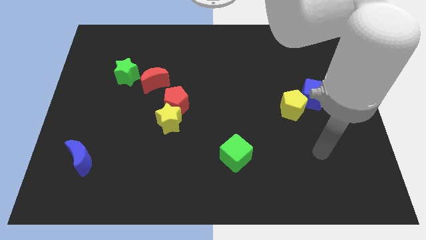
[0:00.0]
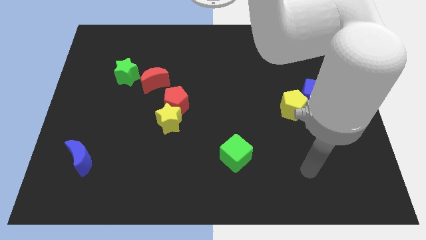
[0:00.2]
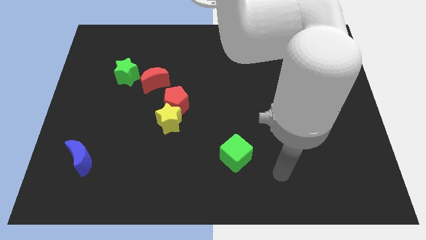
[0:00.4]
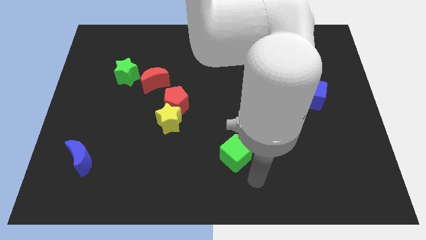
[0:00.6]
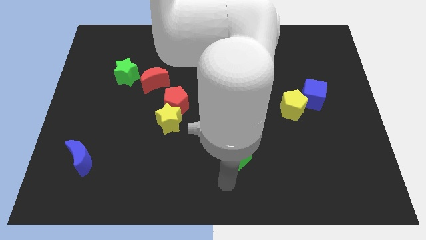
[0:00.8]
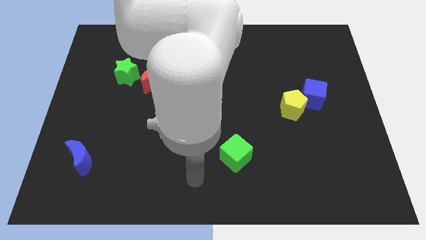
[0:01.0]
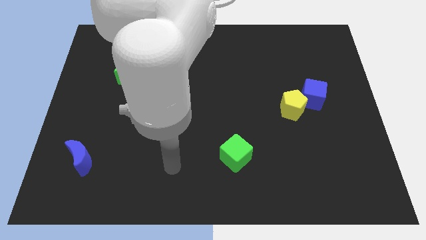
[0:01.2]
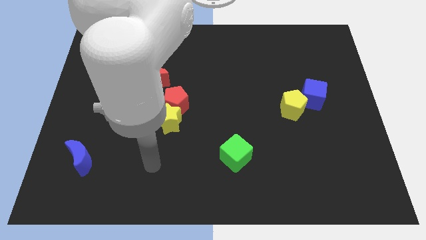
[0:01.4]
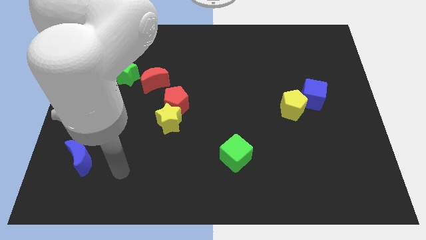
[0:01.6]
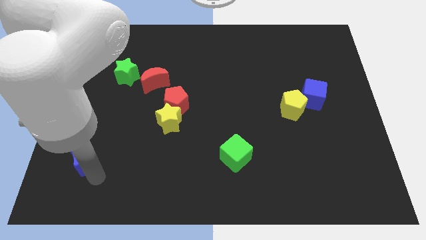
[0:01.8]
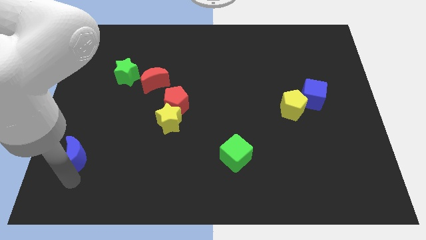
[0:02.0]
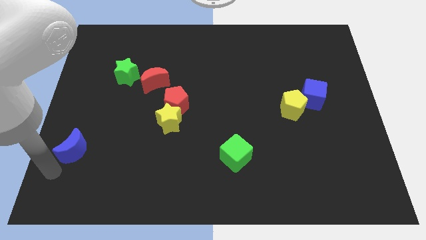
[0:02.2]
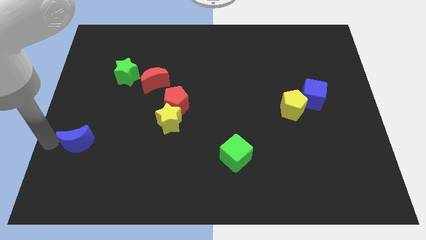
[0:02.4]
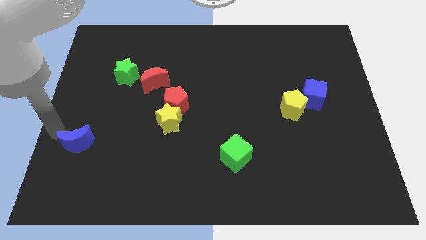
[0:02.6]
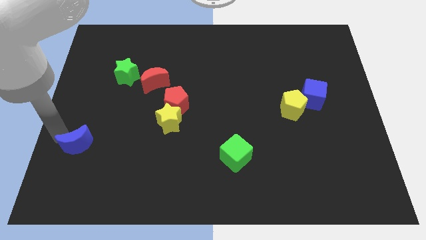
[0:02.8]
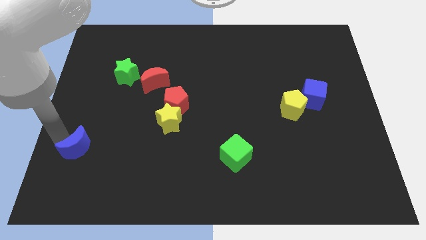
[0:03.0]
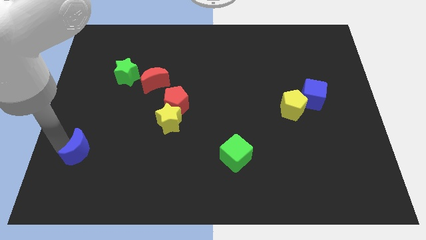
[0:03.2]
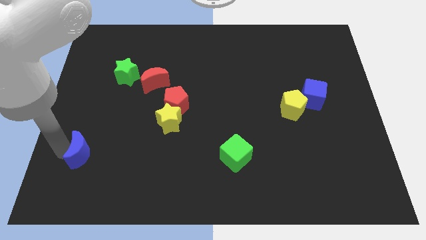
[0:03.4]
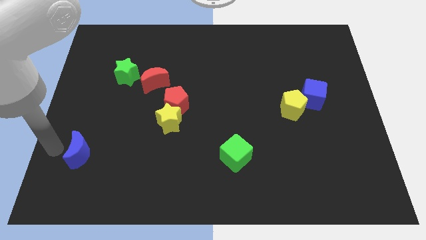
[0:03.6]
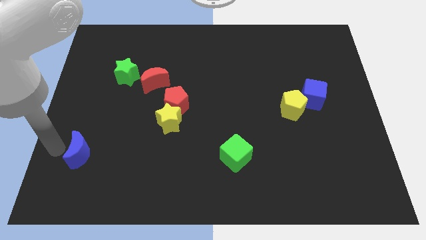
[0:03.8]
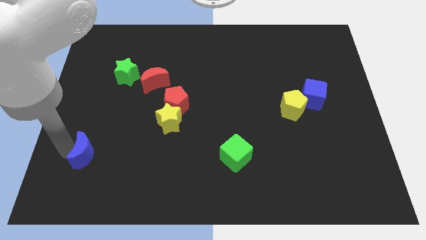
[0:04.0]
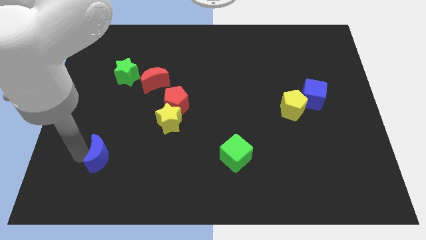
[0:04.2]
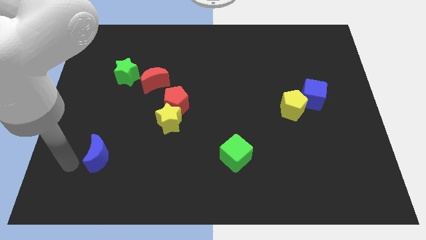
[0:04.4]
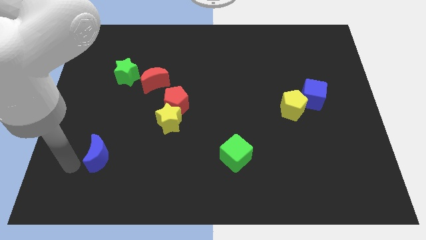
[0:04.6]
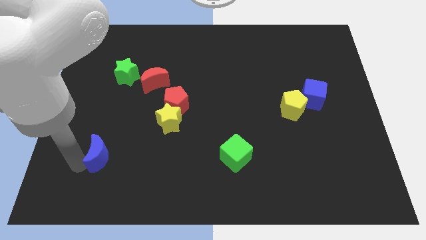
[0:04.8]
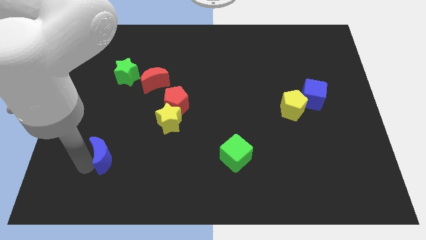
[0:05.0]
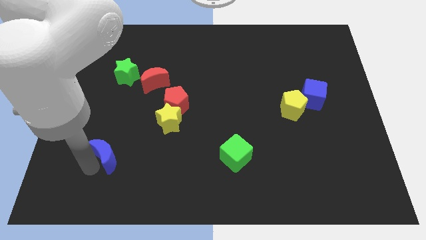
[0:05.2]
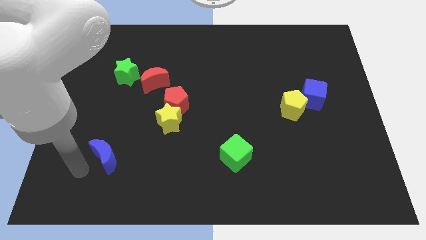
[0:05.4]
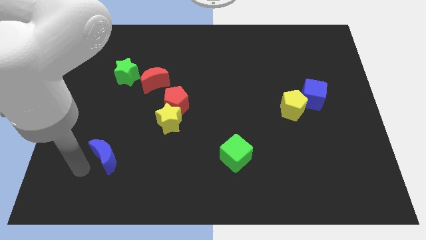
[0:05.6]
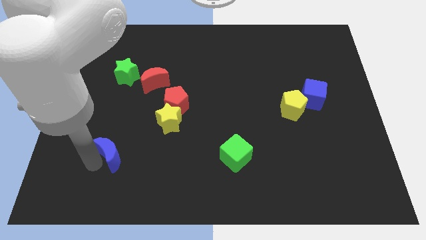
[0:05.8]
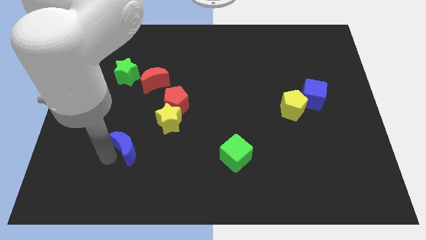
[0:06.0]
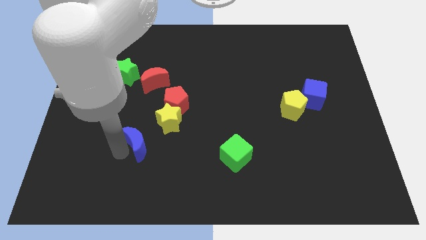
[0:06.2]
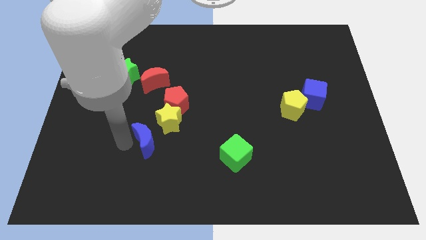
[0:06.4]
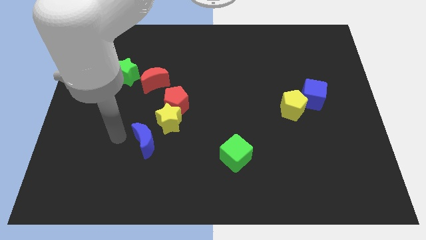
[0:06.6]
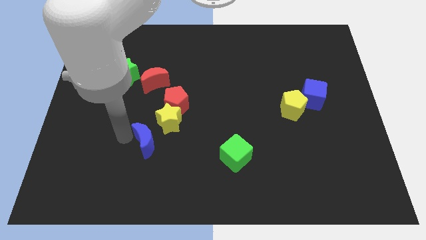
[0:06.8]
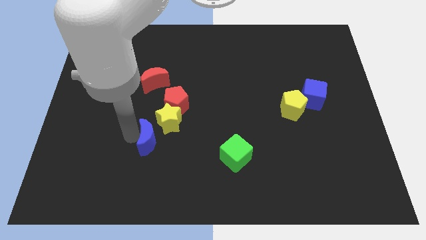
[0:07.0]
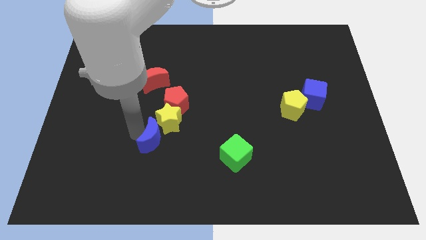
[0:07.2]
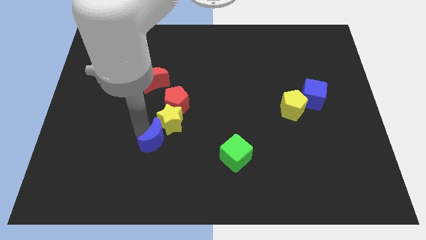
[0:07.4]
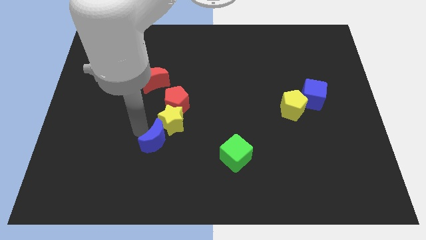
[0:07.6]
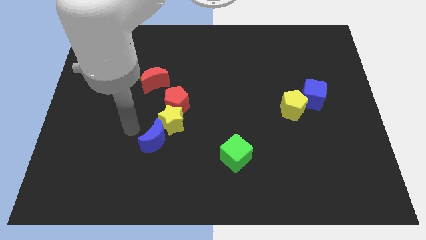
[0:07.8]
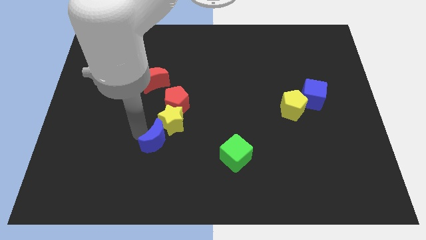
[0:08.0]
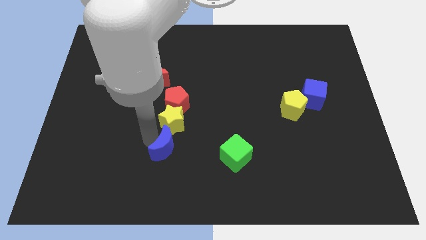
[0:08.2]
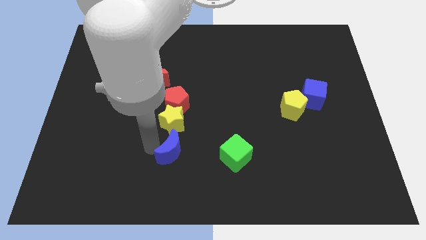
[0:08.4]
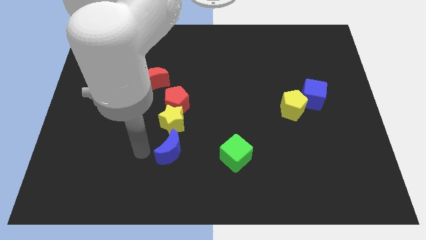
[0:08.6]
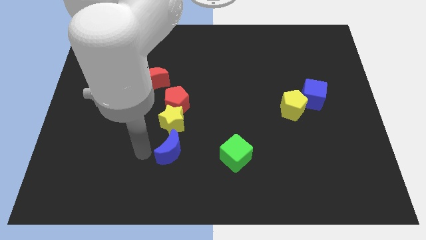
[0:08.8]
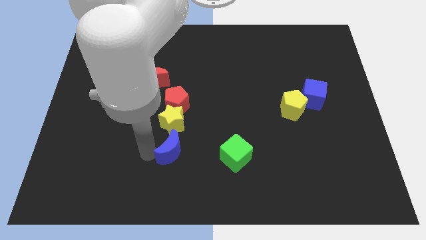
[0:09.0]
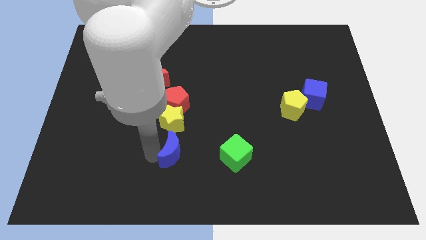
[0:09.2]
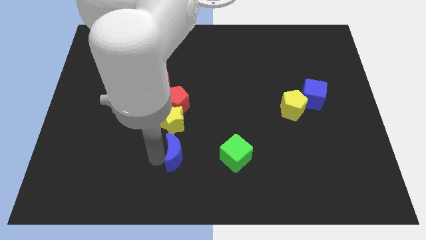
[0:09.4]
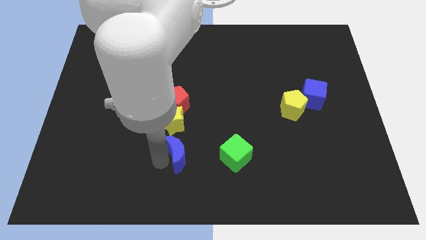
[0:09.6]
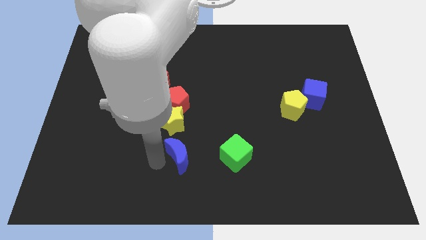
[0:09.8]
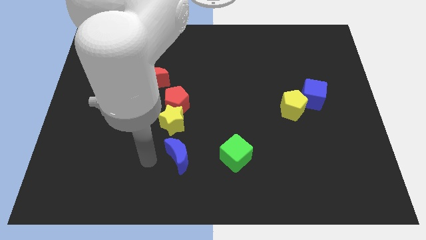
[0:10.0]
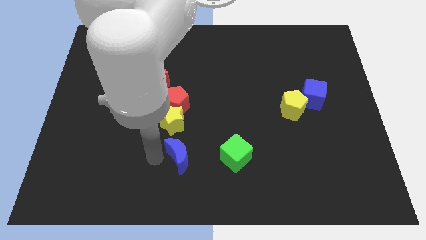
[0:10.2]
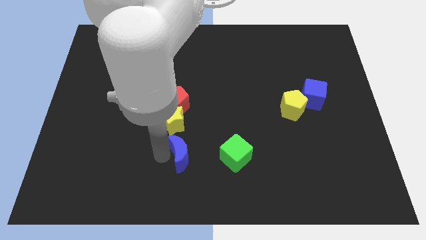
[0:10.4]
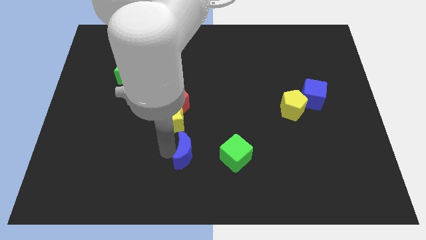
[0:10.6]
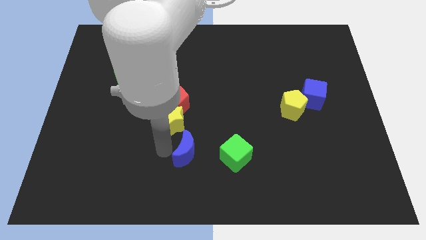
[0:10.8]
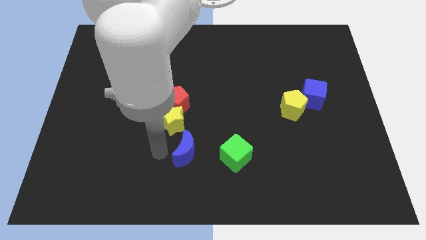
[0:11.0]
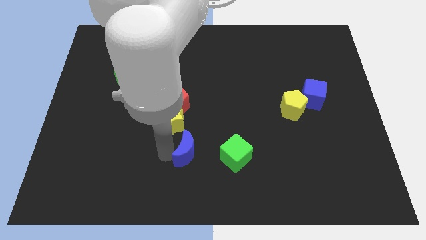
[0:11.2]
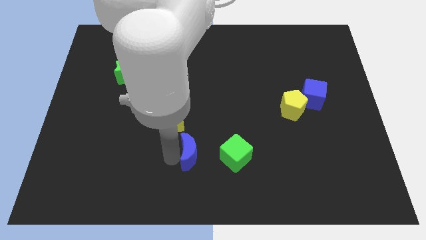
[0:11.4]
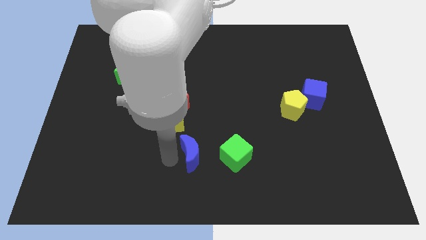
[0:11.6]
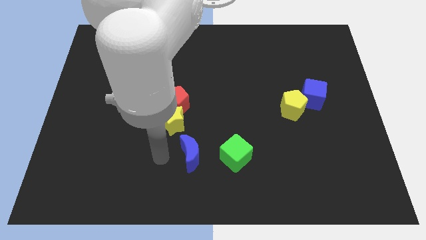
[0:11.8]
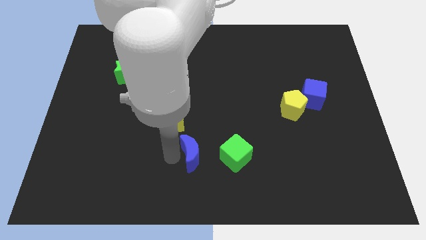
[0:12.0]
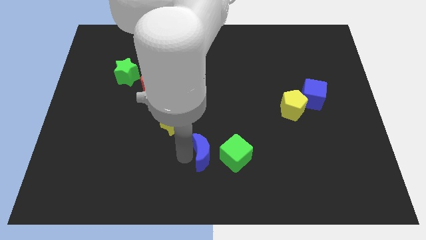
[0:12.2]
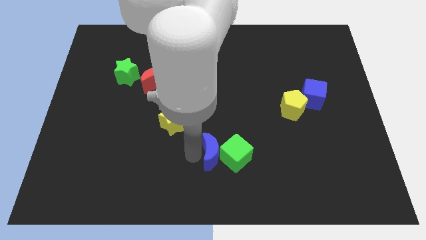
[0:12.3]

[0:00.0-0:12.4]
put the blue moon close to the green cube

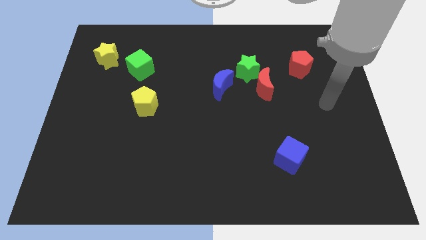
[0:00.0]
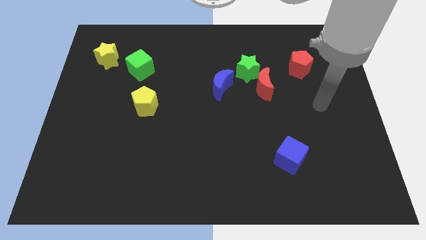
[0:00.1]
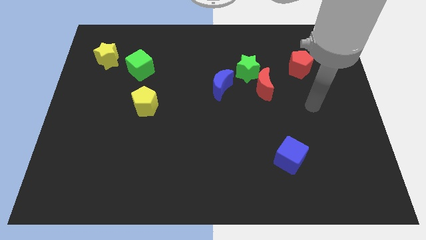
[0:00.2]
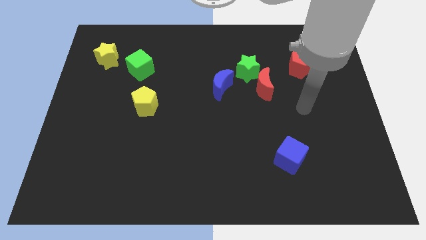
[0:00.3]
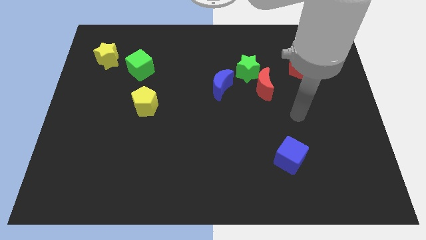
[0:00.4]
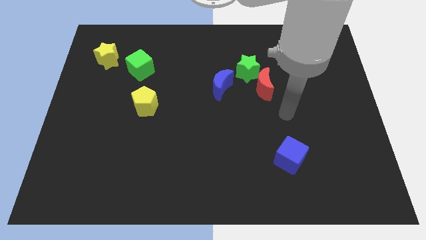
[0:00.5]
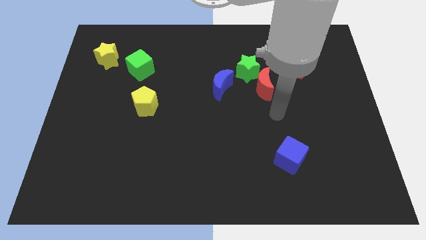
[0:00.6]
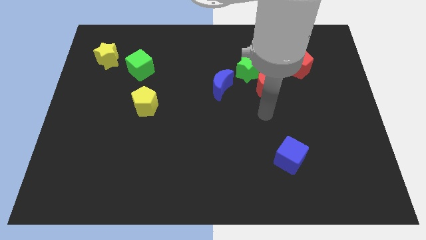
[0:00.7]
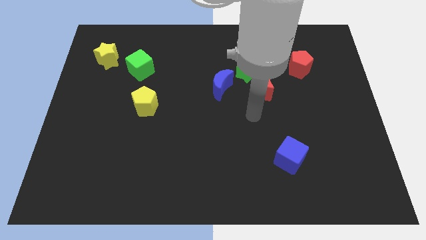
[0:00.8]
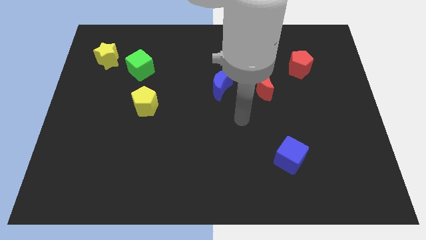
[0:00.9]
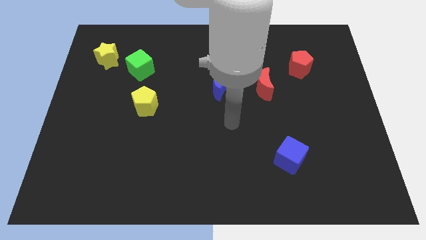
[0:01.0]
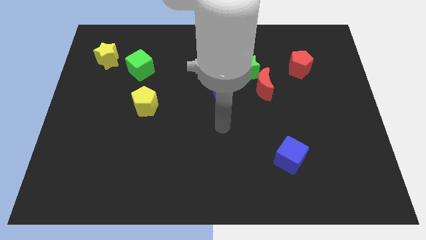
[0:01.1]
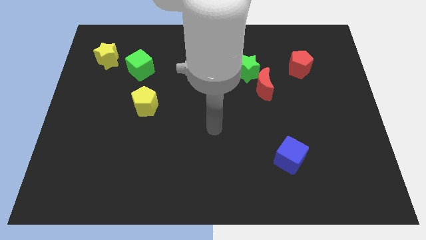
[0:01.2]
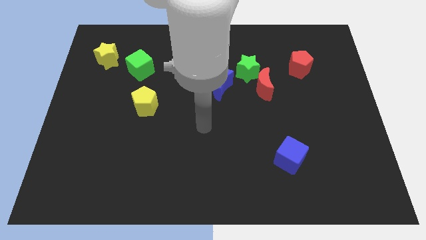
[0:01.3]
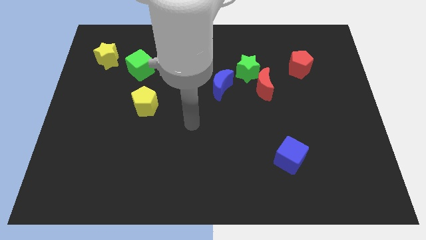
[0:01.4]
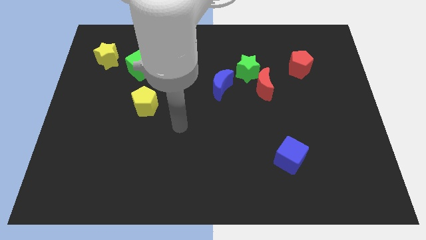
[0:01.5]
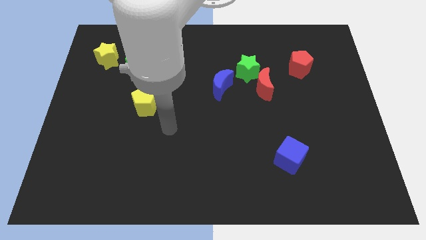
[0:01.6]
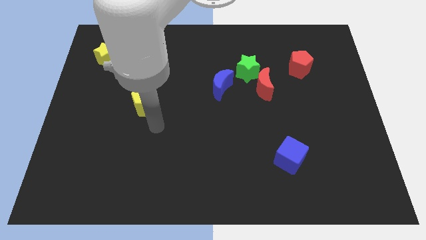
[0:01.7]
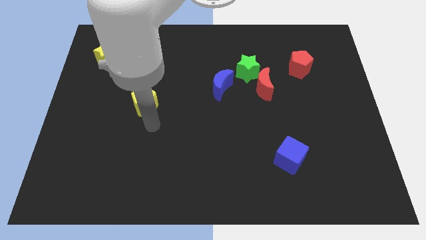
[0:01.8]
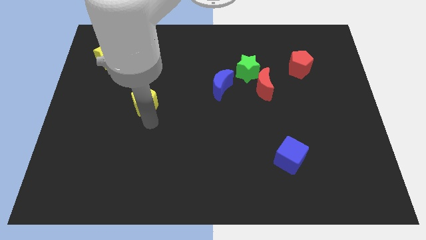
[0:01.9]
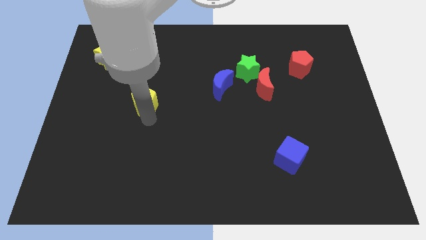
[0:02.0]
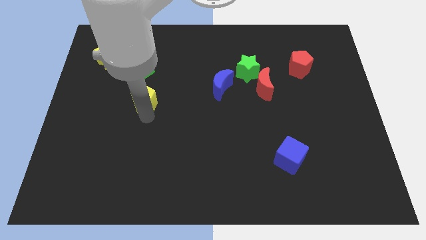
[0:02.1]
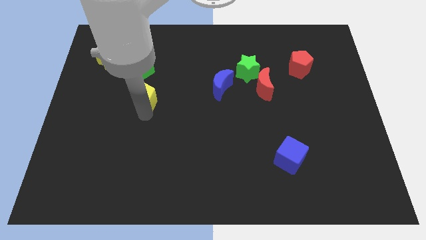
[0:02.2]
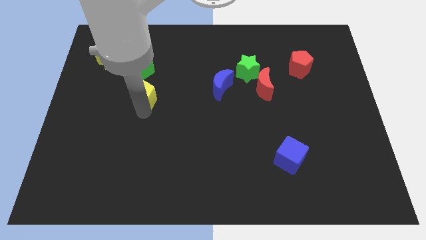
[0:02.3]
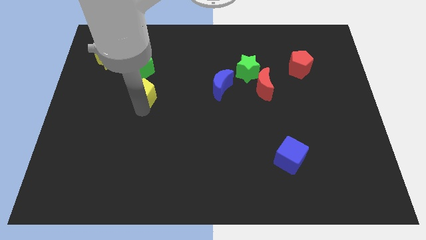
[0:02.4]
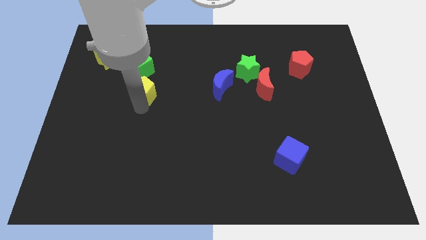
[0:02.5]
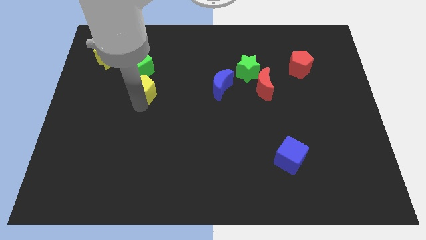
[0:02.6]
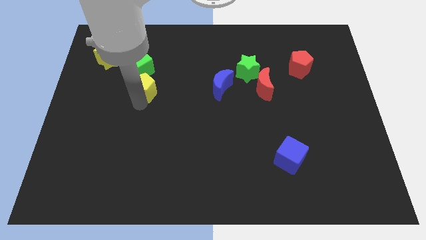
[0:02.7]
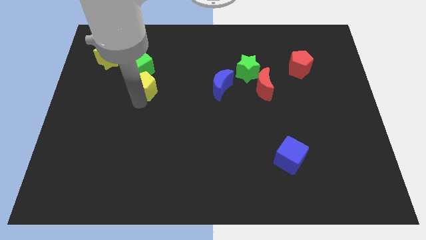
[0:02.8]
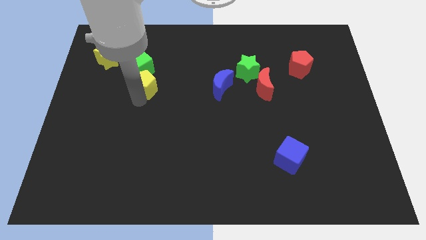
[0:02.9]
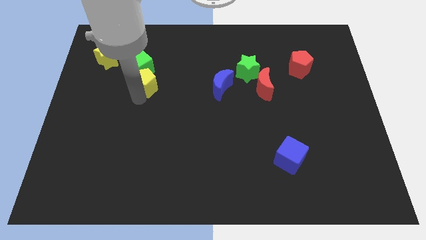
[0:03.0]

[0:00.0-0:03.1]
push the yellow pentagon next to the green cube
